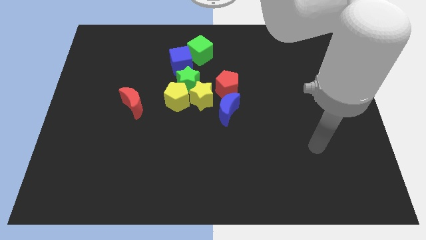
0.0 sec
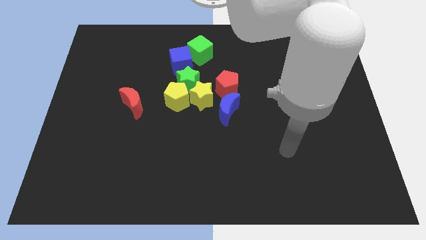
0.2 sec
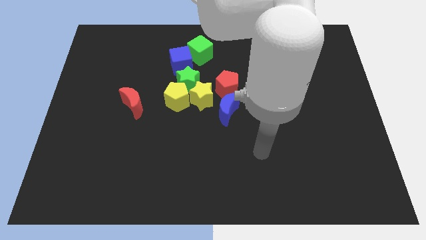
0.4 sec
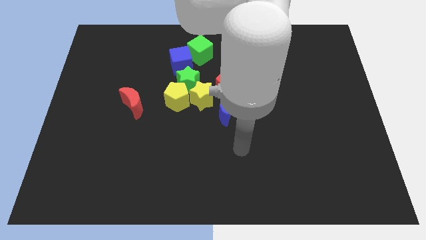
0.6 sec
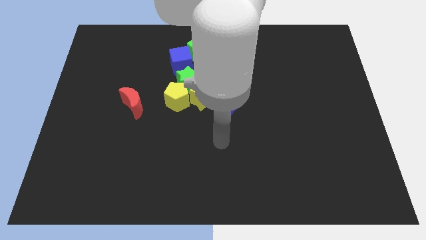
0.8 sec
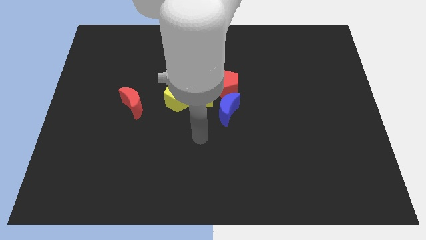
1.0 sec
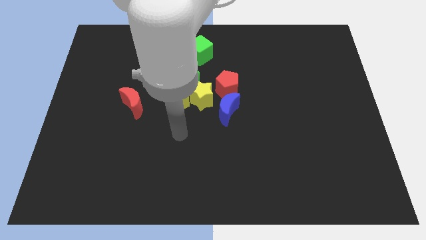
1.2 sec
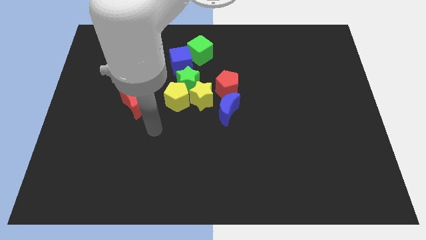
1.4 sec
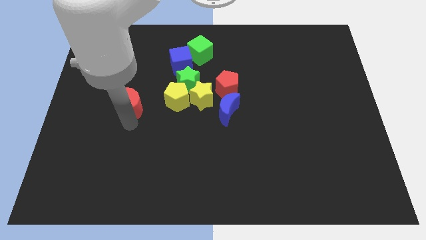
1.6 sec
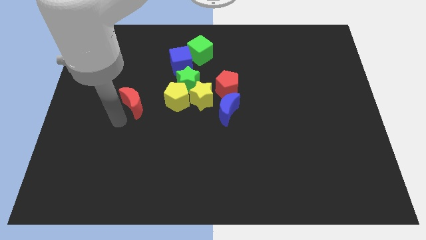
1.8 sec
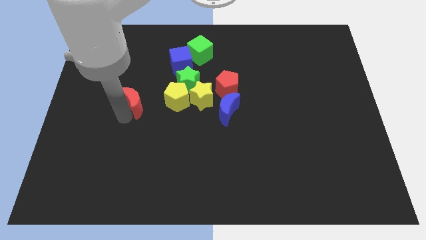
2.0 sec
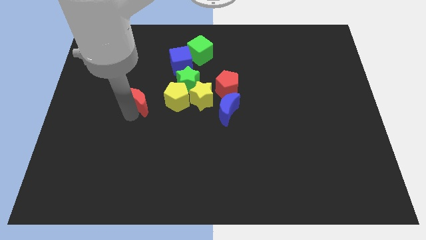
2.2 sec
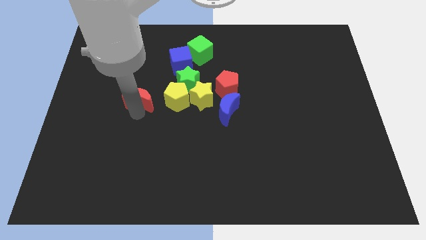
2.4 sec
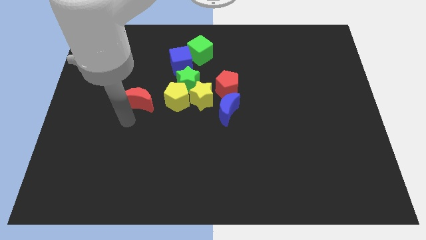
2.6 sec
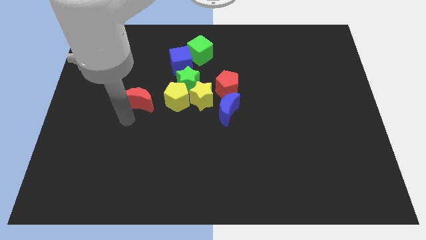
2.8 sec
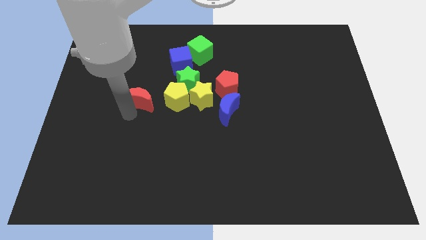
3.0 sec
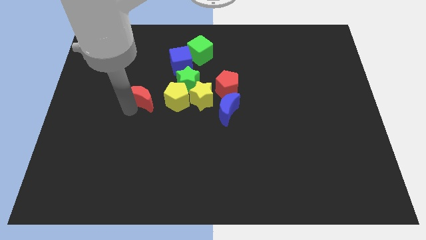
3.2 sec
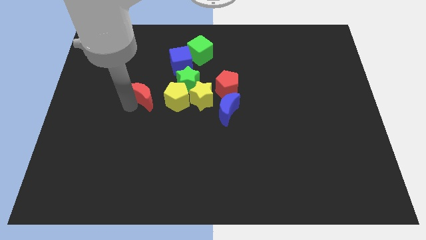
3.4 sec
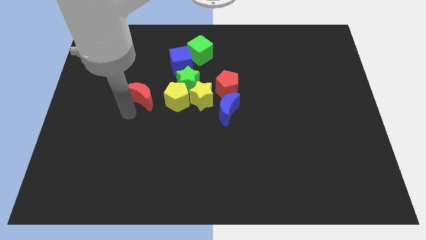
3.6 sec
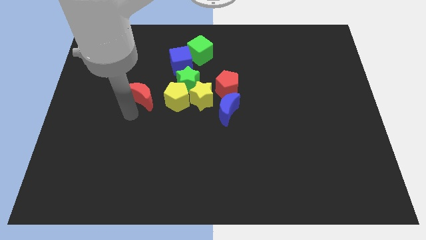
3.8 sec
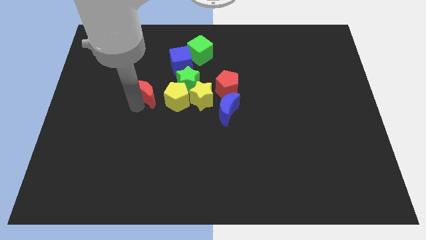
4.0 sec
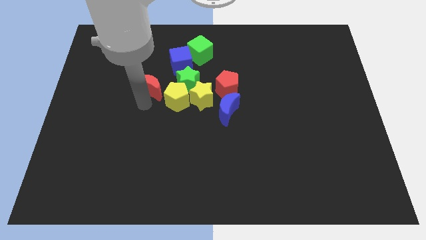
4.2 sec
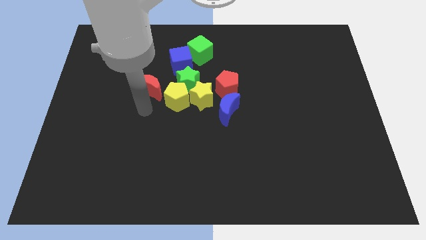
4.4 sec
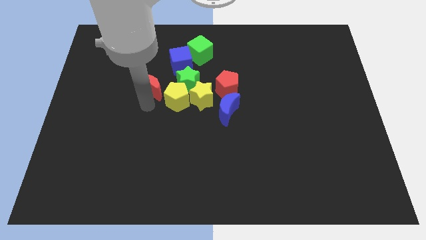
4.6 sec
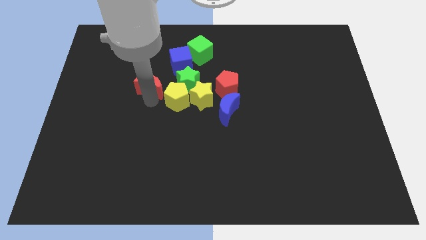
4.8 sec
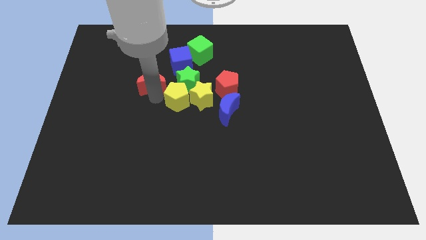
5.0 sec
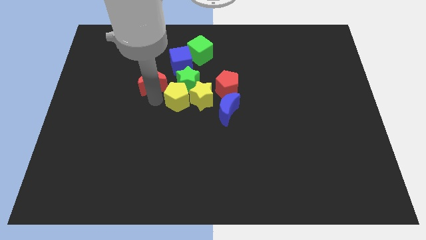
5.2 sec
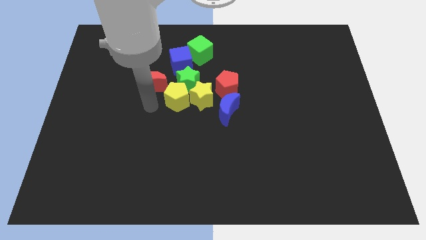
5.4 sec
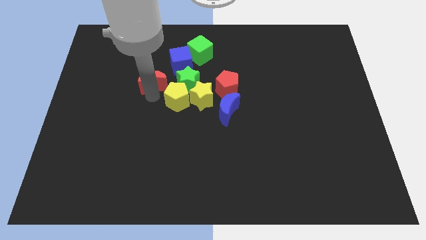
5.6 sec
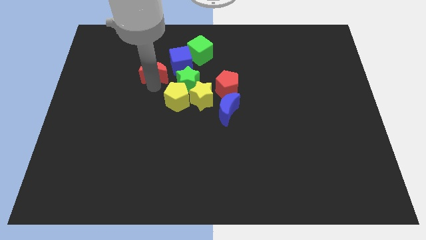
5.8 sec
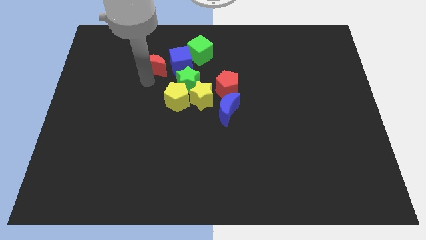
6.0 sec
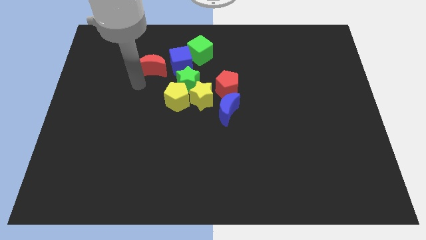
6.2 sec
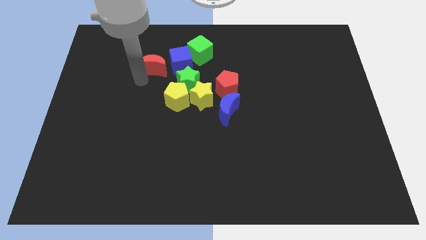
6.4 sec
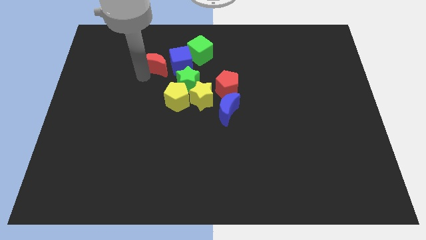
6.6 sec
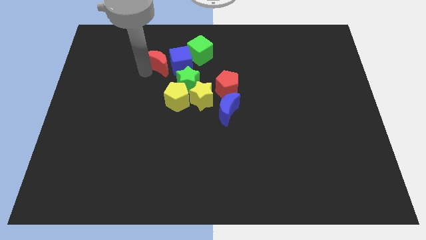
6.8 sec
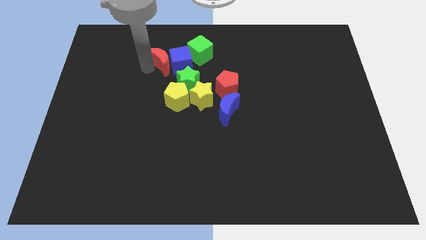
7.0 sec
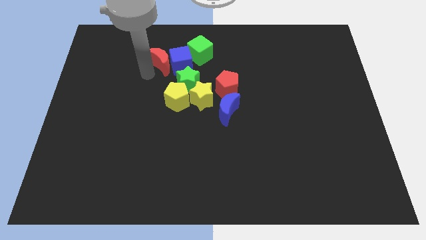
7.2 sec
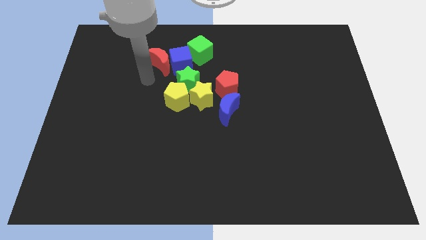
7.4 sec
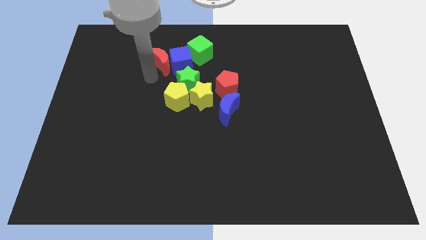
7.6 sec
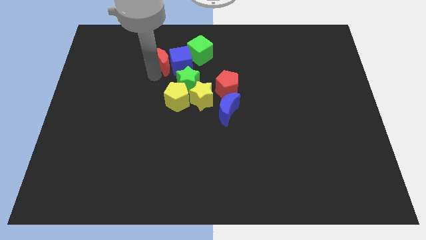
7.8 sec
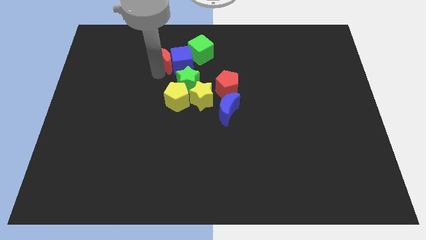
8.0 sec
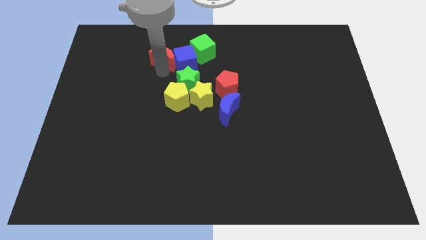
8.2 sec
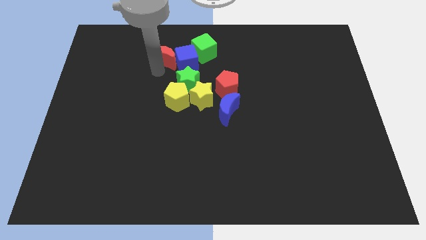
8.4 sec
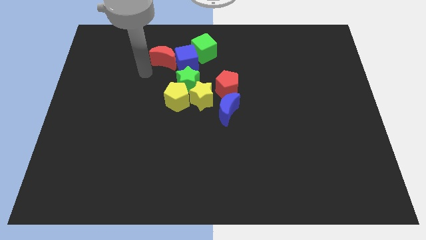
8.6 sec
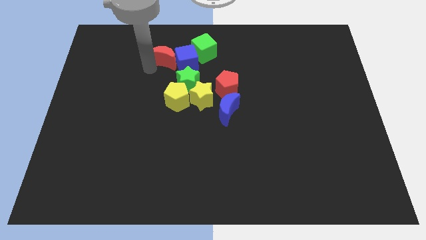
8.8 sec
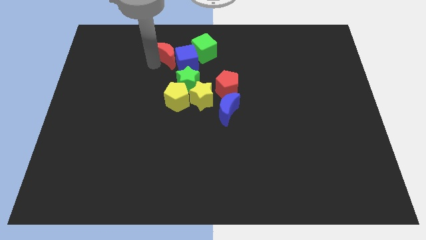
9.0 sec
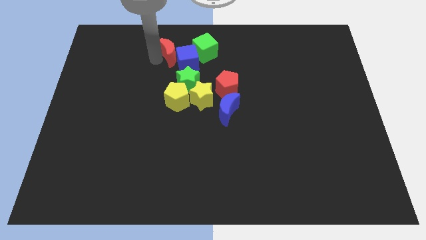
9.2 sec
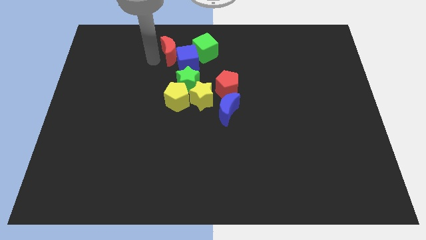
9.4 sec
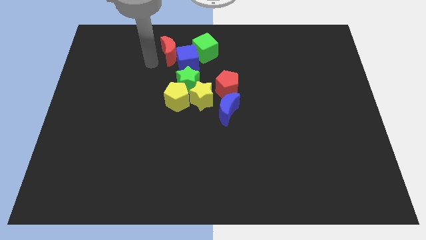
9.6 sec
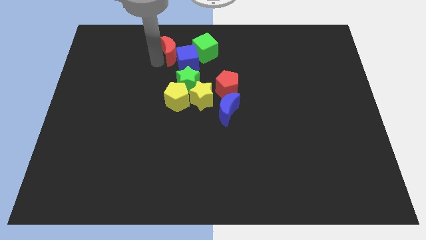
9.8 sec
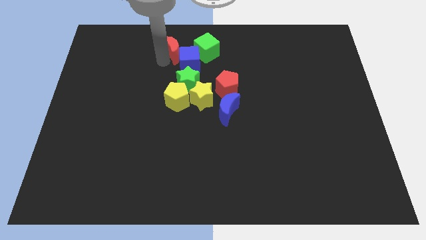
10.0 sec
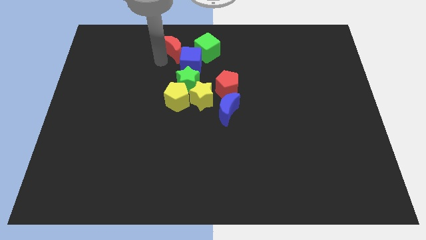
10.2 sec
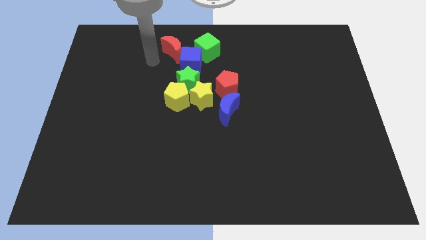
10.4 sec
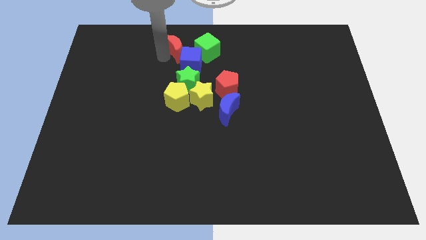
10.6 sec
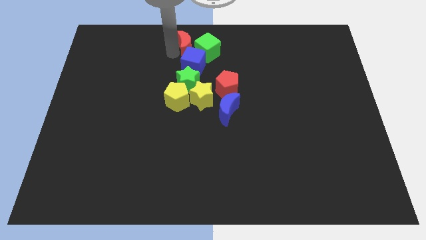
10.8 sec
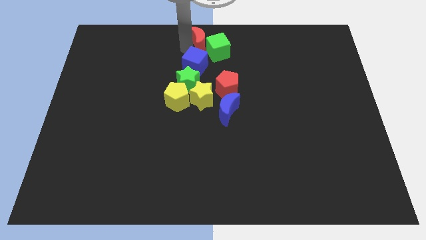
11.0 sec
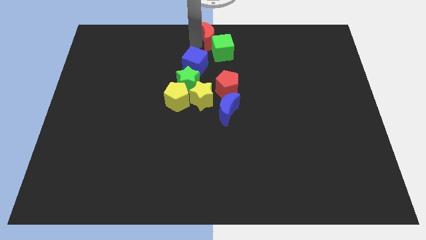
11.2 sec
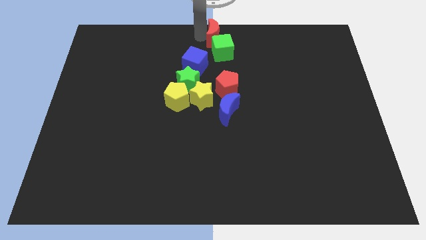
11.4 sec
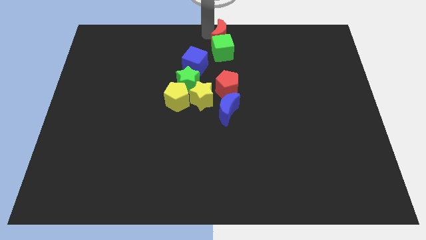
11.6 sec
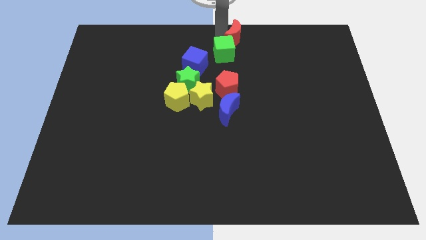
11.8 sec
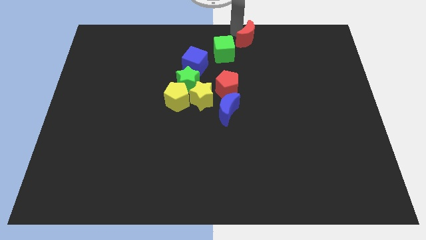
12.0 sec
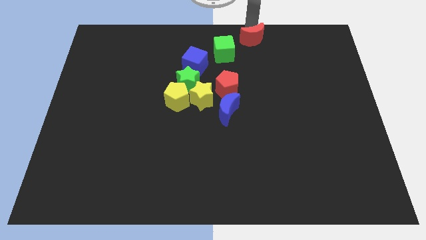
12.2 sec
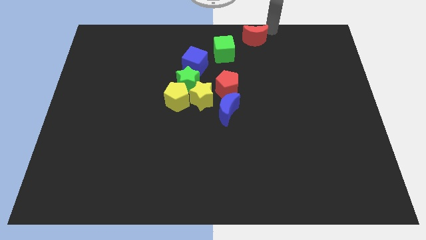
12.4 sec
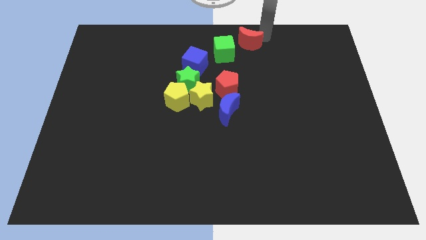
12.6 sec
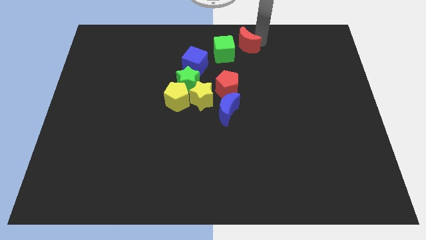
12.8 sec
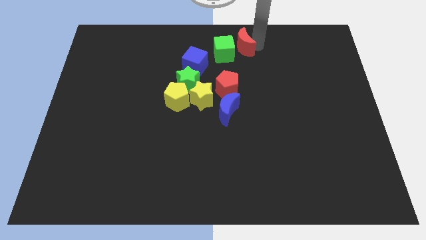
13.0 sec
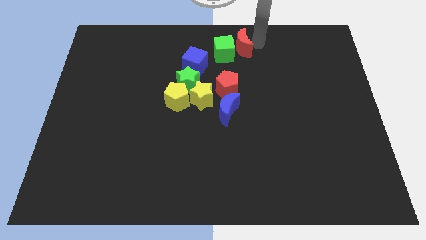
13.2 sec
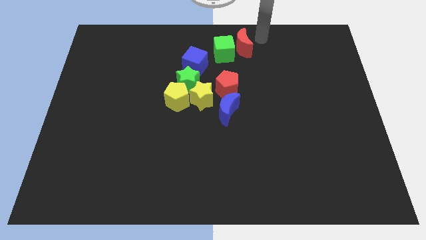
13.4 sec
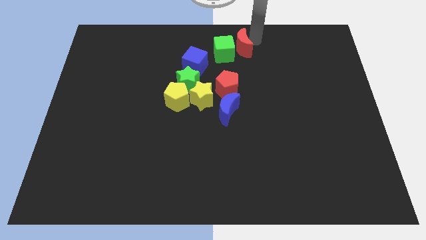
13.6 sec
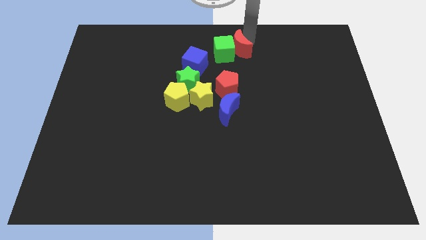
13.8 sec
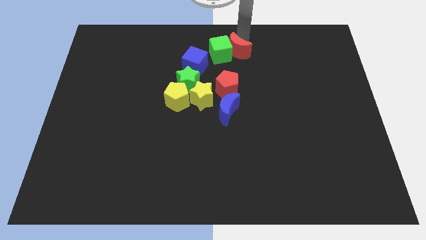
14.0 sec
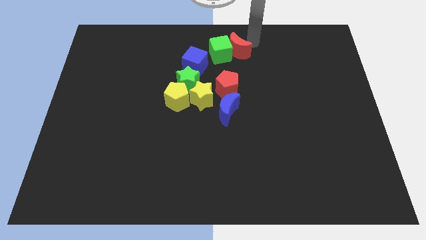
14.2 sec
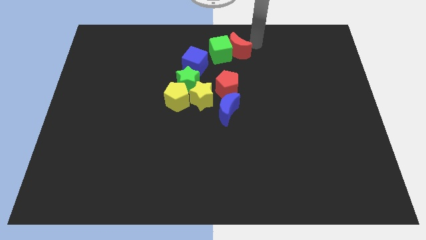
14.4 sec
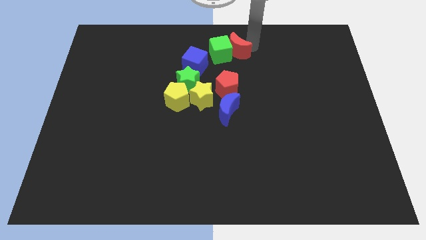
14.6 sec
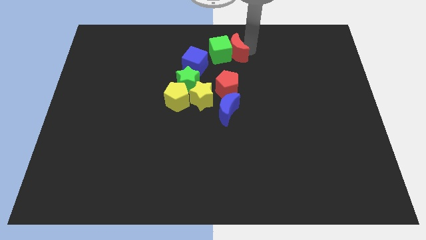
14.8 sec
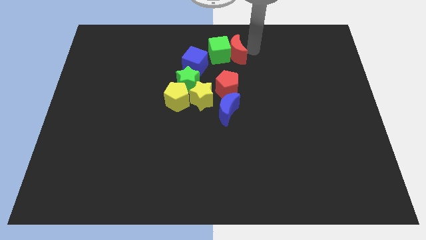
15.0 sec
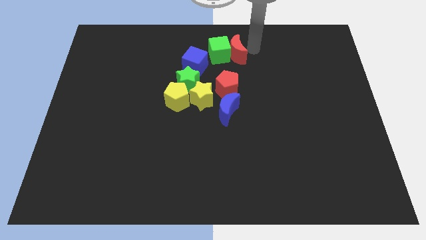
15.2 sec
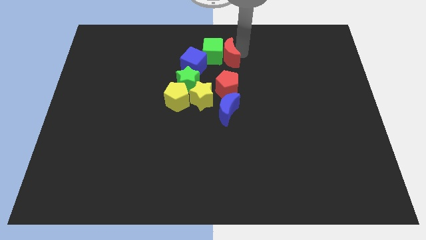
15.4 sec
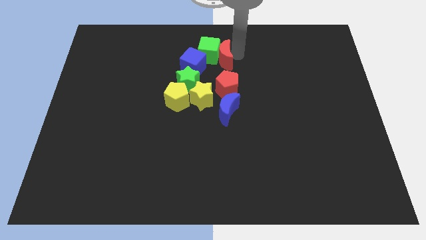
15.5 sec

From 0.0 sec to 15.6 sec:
push the red moon diagonally up and to the right of the green star
